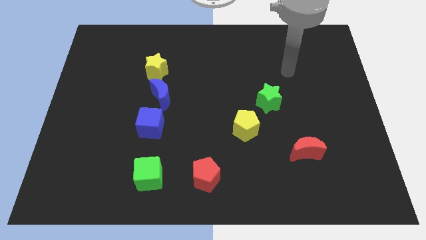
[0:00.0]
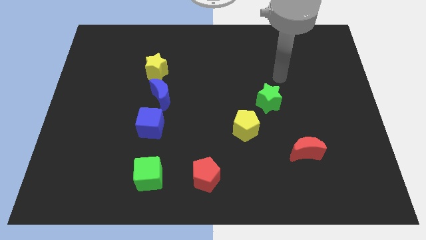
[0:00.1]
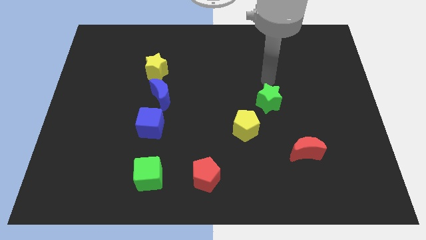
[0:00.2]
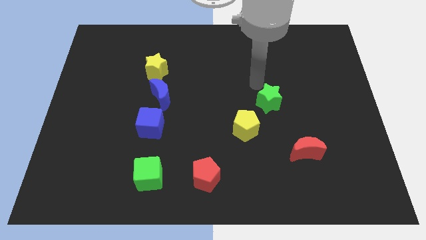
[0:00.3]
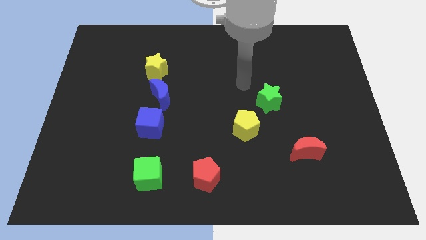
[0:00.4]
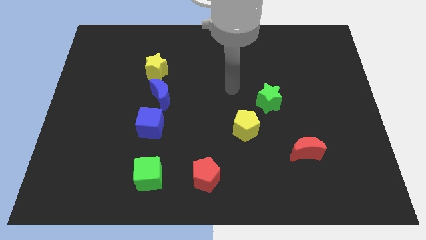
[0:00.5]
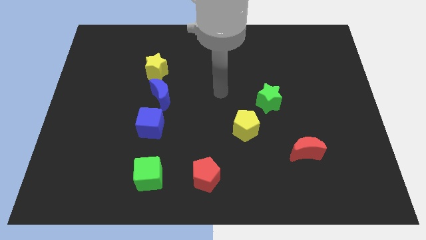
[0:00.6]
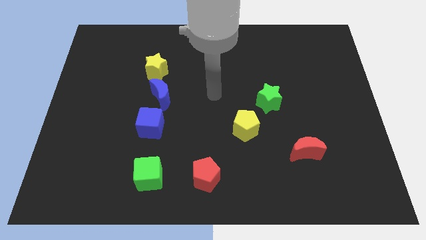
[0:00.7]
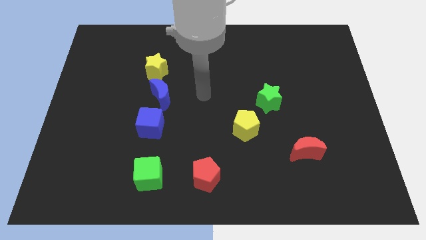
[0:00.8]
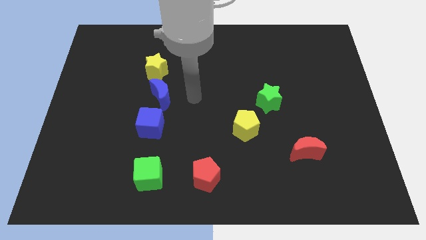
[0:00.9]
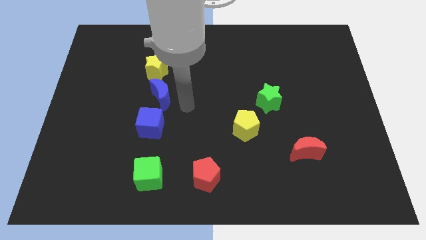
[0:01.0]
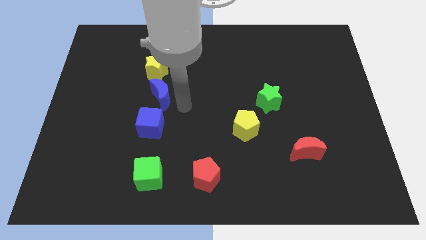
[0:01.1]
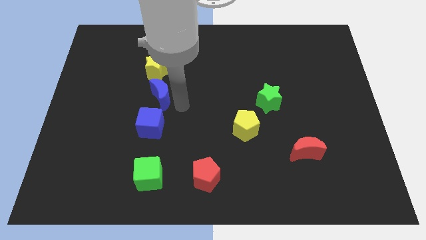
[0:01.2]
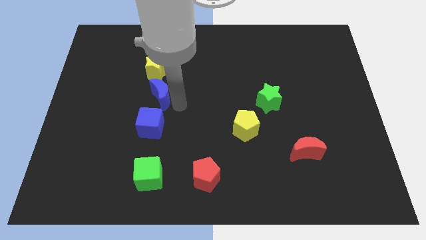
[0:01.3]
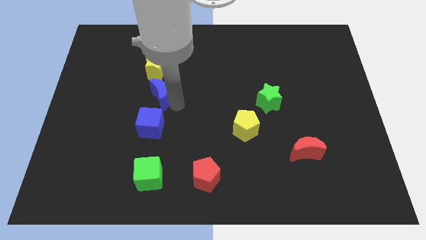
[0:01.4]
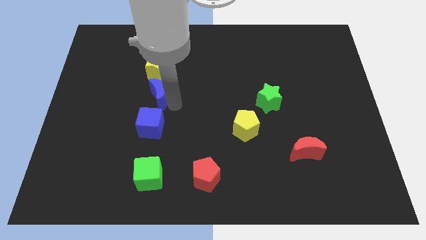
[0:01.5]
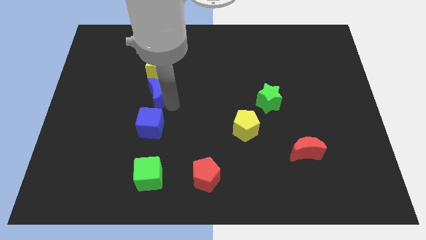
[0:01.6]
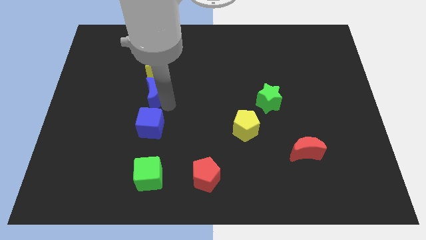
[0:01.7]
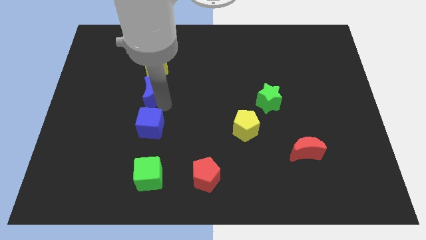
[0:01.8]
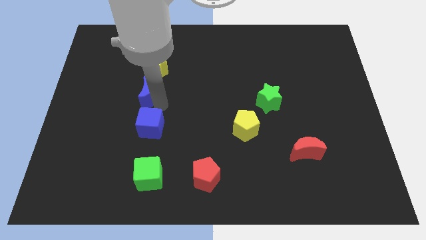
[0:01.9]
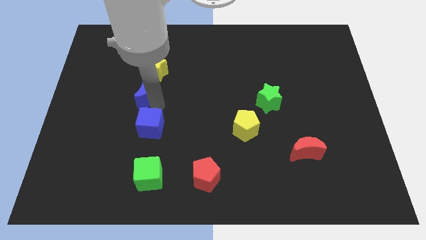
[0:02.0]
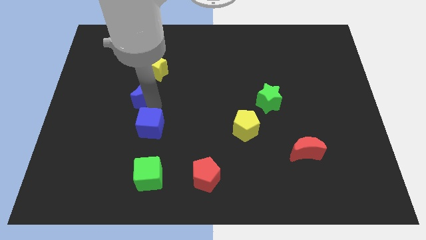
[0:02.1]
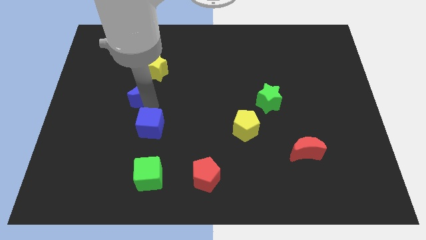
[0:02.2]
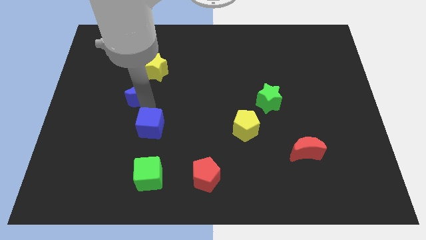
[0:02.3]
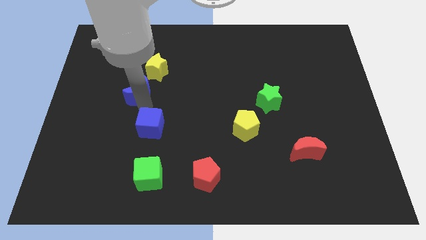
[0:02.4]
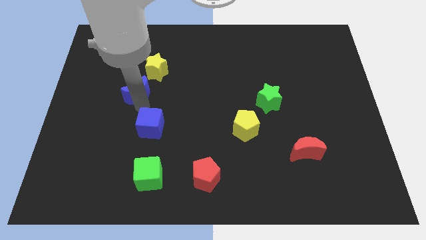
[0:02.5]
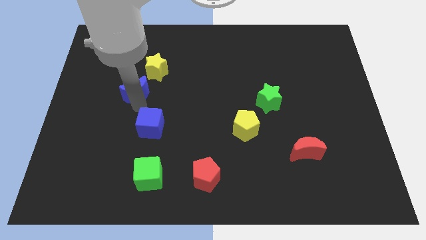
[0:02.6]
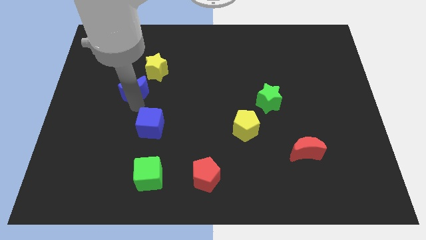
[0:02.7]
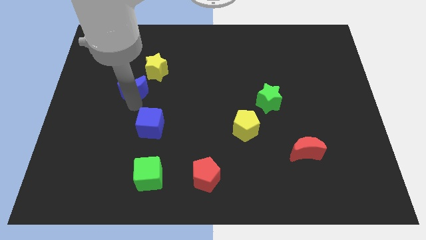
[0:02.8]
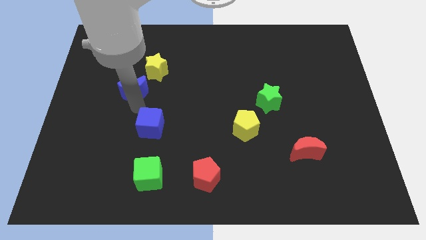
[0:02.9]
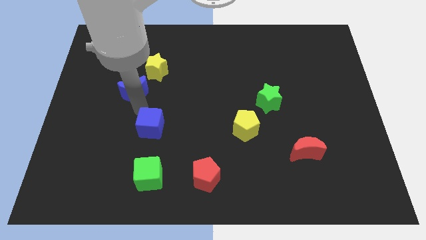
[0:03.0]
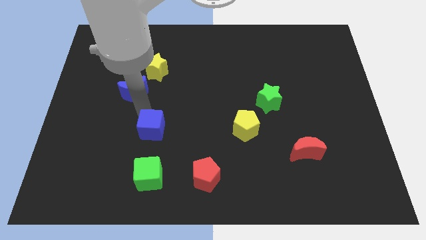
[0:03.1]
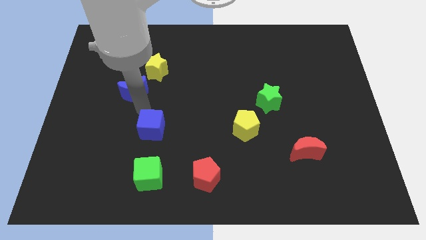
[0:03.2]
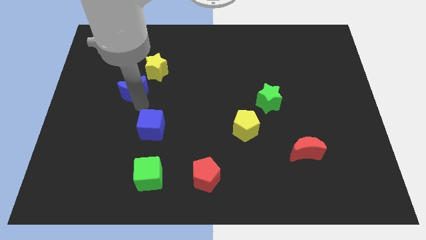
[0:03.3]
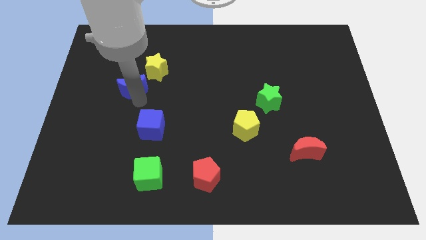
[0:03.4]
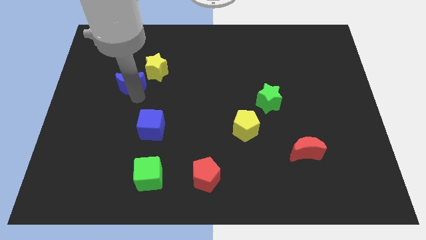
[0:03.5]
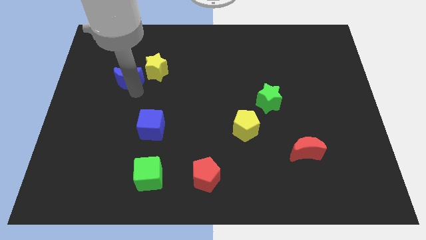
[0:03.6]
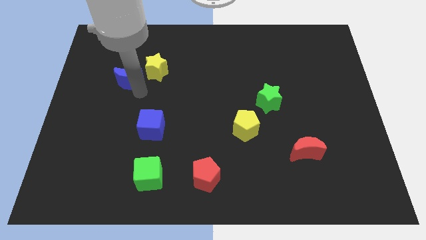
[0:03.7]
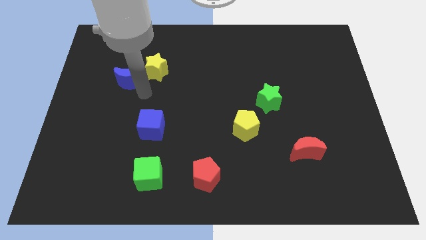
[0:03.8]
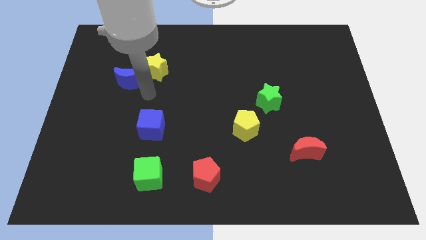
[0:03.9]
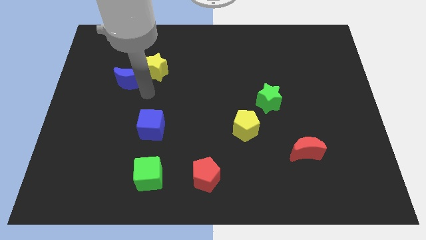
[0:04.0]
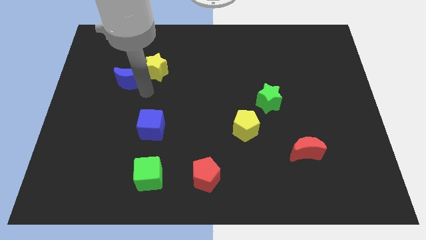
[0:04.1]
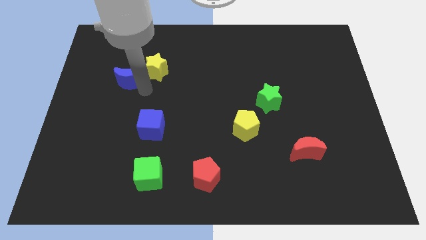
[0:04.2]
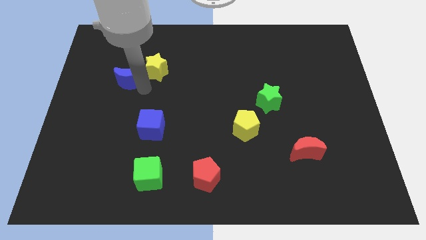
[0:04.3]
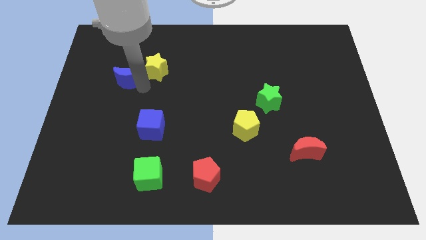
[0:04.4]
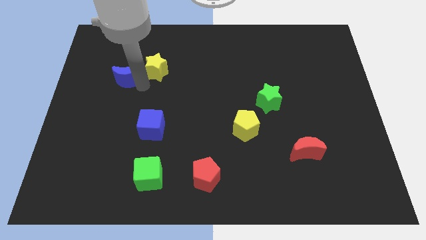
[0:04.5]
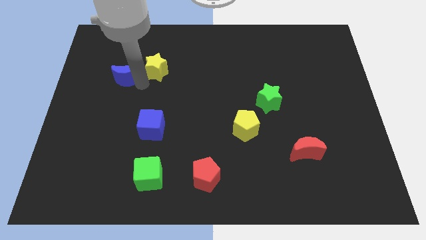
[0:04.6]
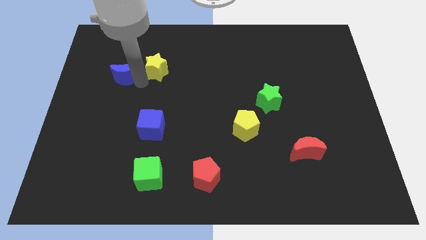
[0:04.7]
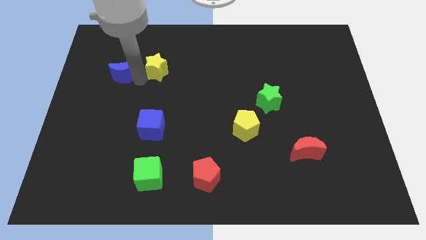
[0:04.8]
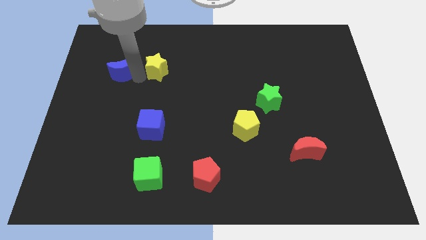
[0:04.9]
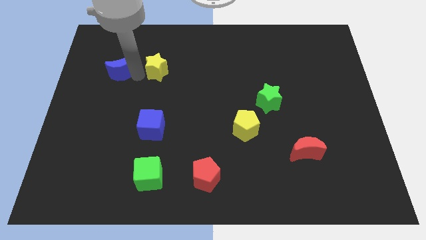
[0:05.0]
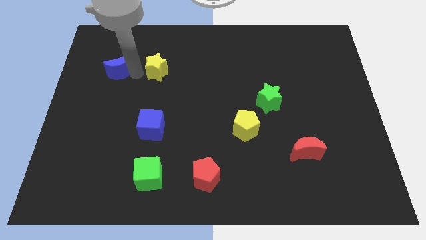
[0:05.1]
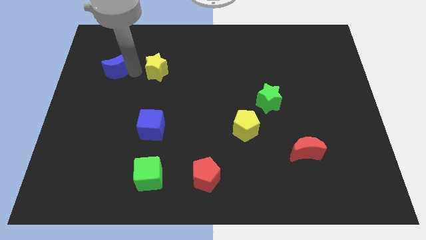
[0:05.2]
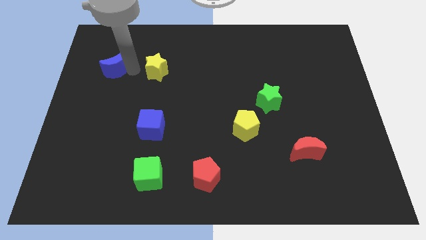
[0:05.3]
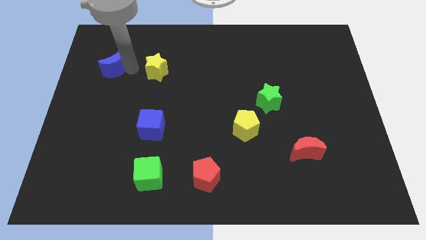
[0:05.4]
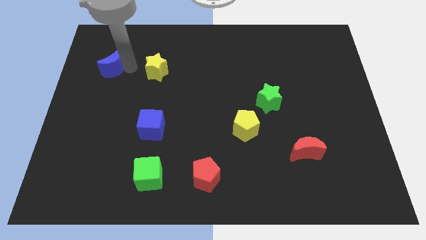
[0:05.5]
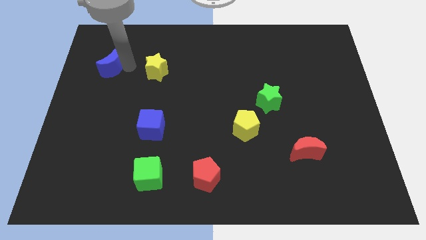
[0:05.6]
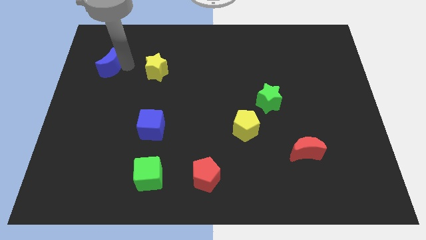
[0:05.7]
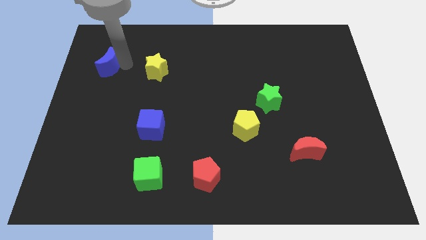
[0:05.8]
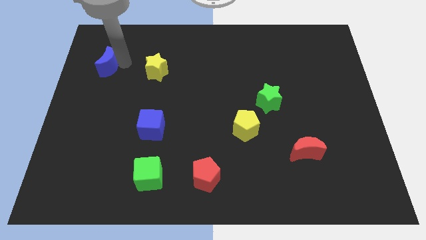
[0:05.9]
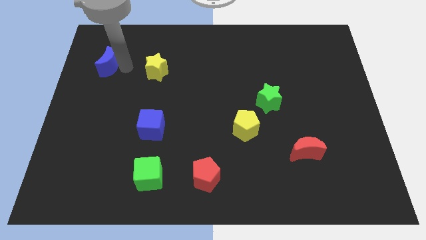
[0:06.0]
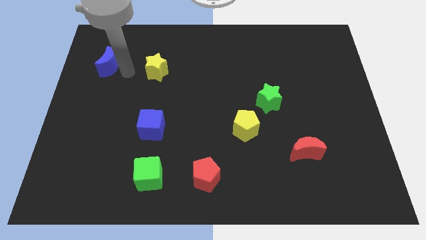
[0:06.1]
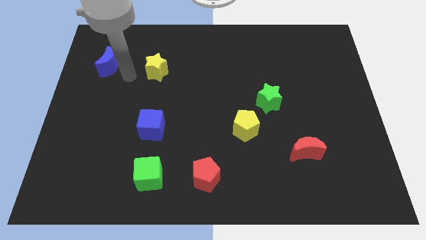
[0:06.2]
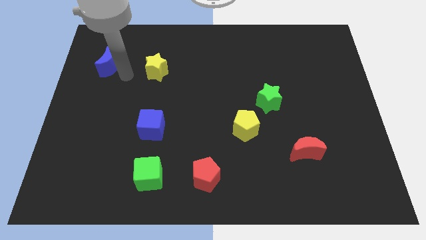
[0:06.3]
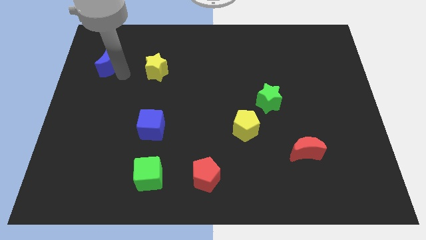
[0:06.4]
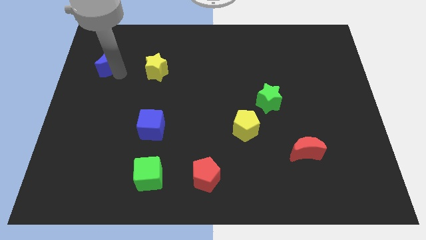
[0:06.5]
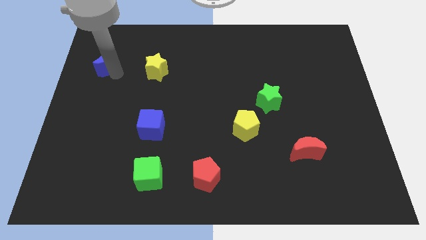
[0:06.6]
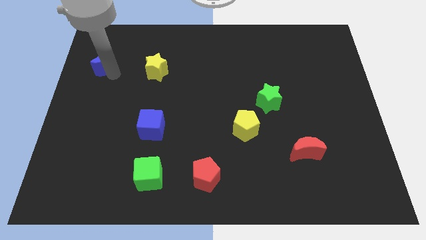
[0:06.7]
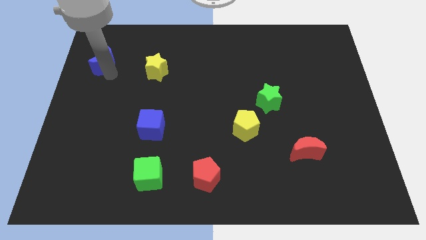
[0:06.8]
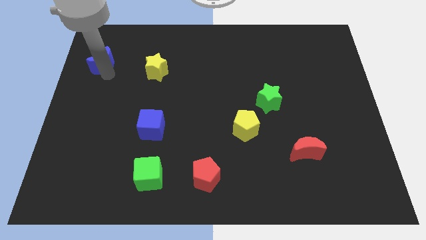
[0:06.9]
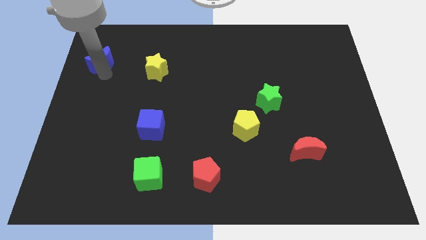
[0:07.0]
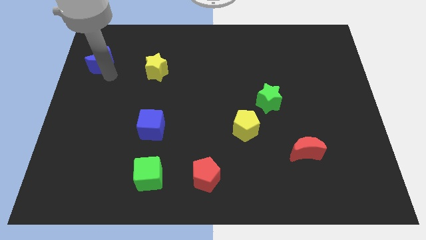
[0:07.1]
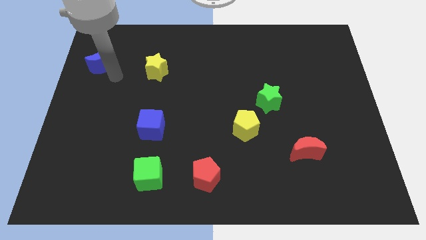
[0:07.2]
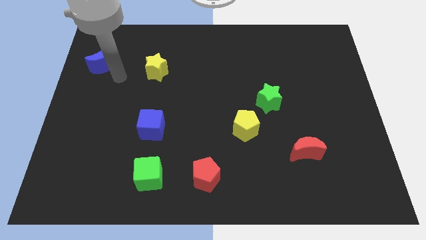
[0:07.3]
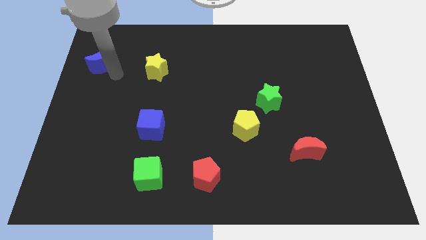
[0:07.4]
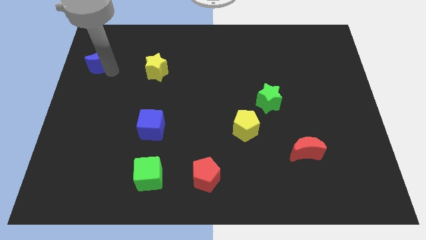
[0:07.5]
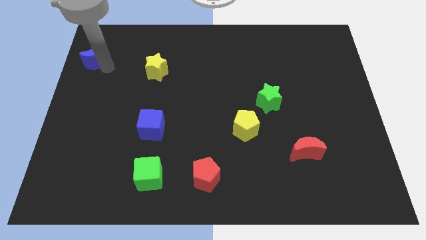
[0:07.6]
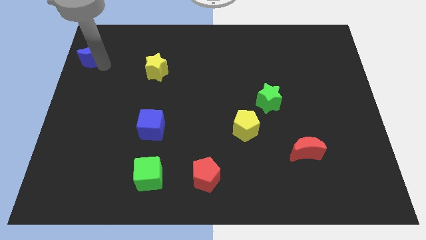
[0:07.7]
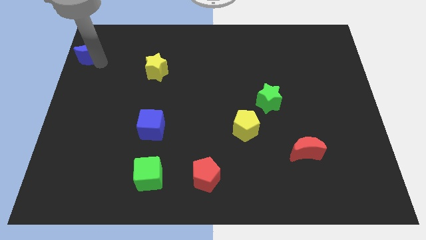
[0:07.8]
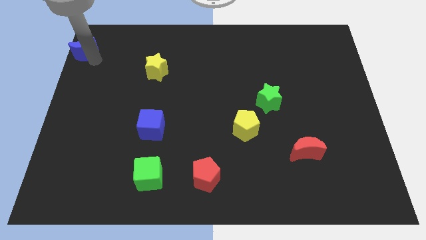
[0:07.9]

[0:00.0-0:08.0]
push the blue moon to the top left corner
